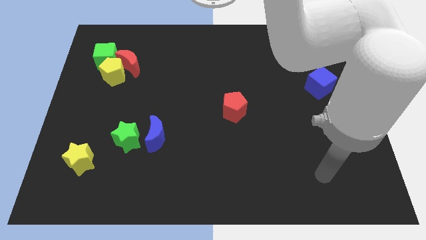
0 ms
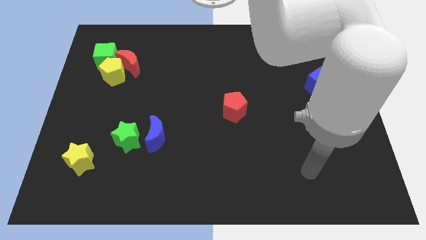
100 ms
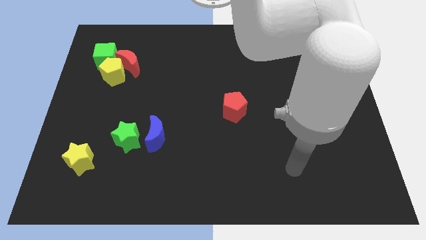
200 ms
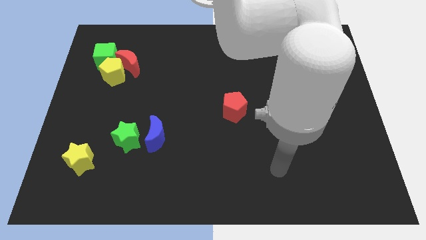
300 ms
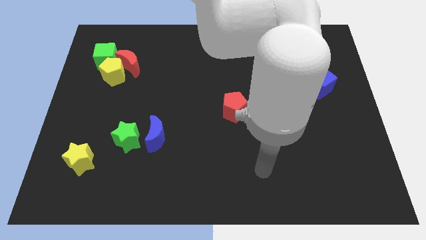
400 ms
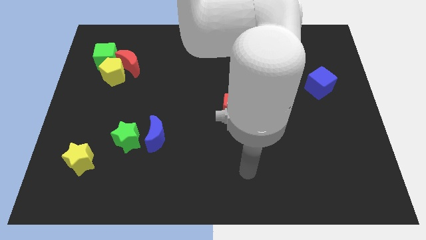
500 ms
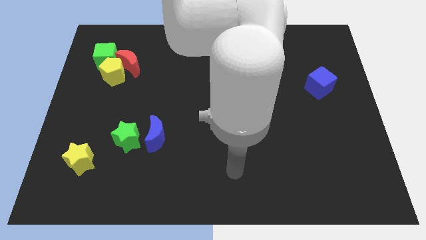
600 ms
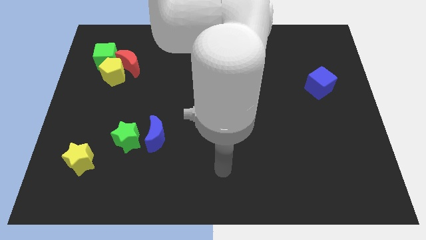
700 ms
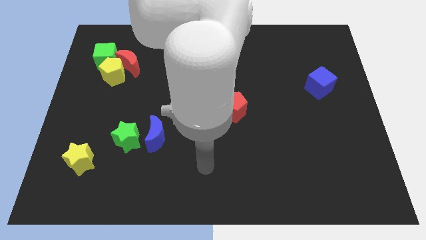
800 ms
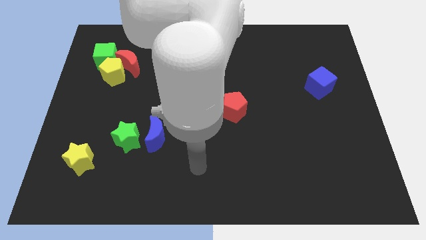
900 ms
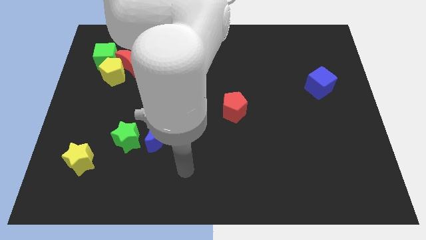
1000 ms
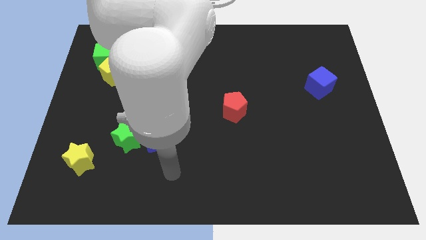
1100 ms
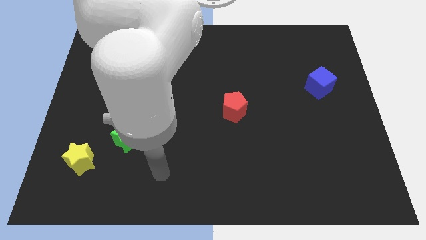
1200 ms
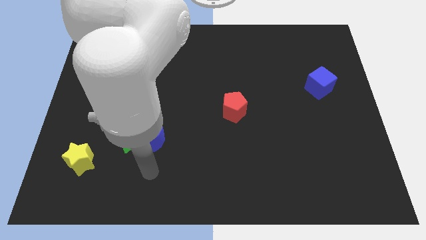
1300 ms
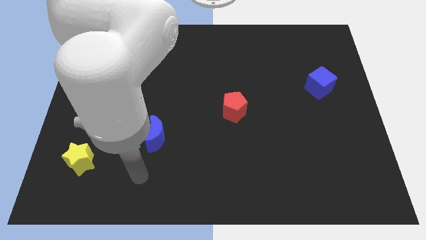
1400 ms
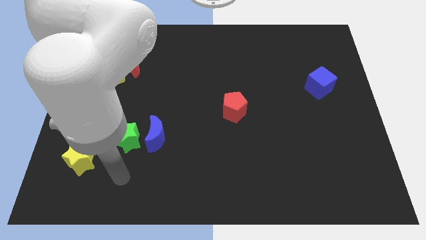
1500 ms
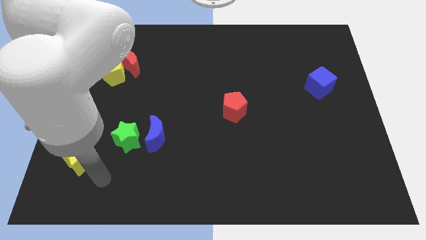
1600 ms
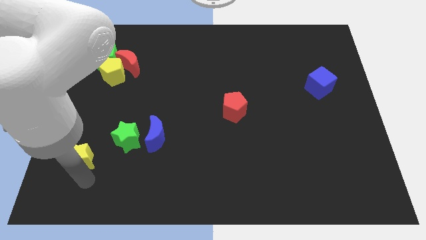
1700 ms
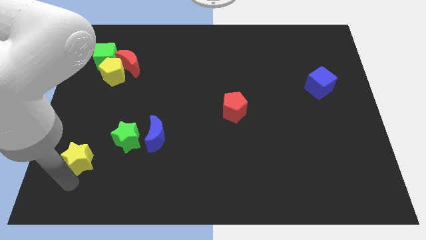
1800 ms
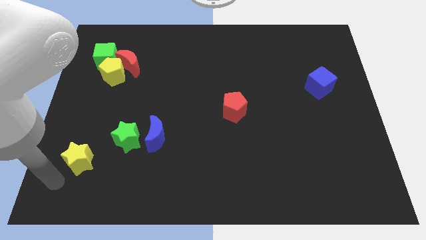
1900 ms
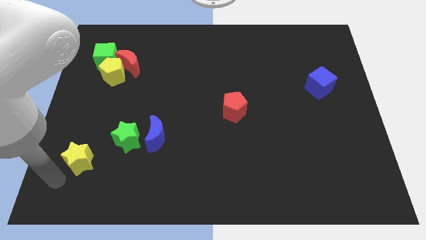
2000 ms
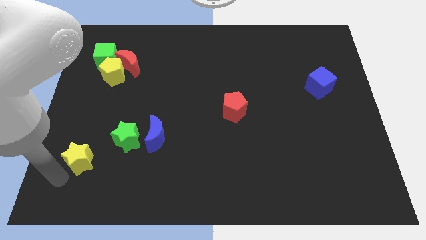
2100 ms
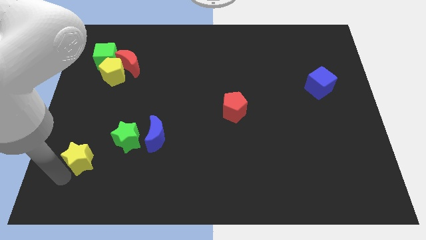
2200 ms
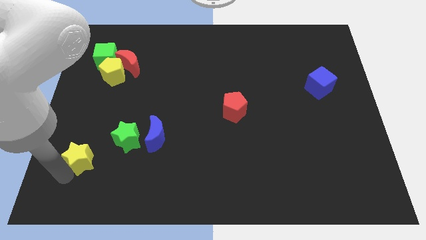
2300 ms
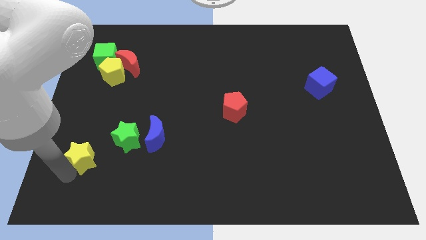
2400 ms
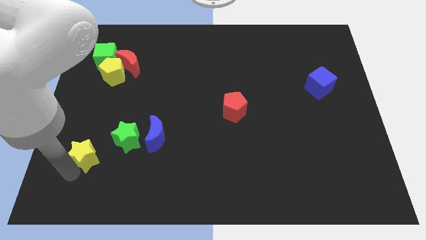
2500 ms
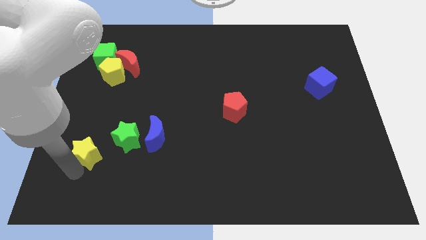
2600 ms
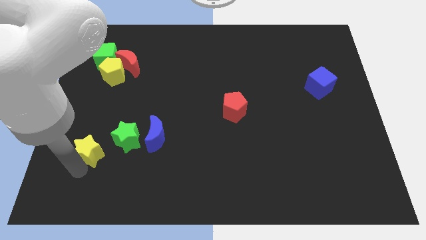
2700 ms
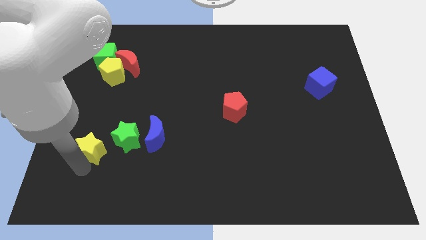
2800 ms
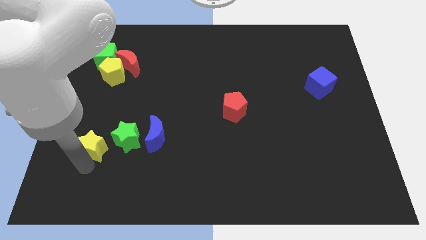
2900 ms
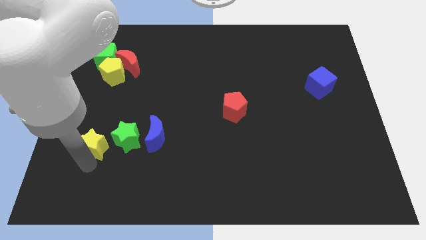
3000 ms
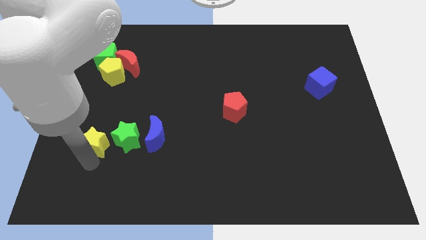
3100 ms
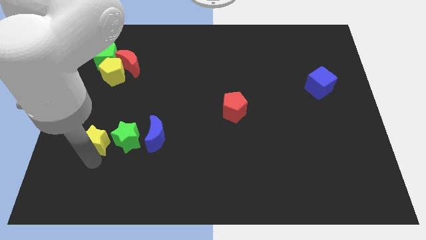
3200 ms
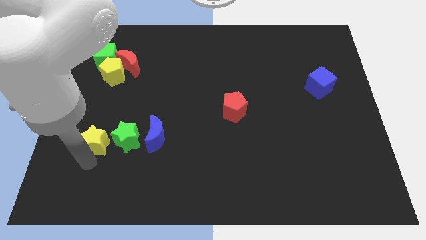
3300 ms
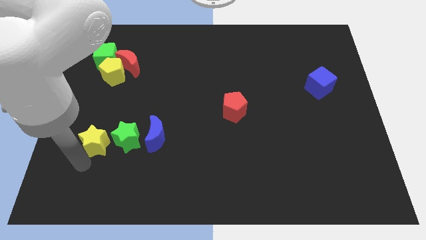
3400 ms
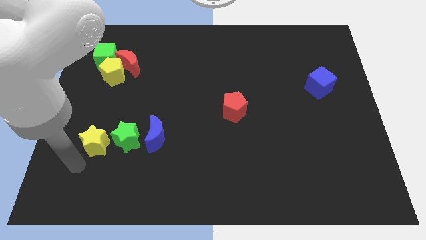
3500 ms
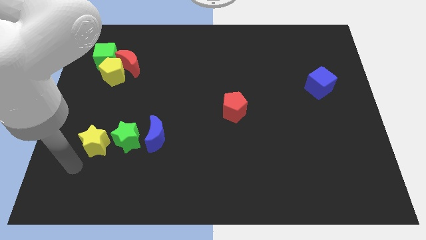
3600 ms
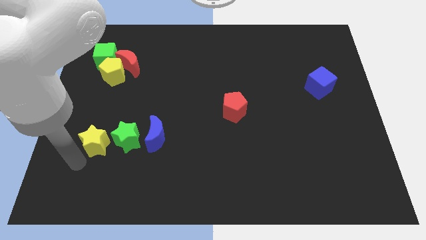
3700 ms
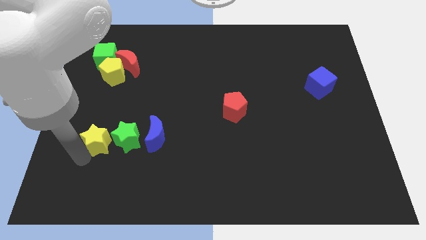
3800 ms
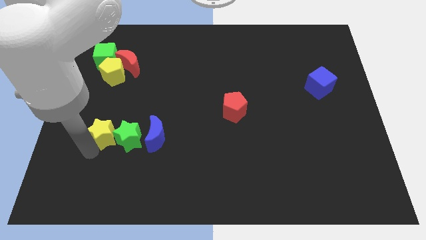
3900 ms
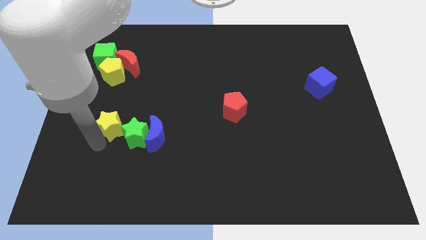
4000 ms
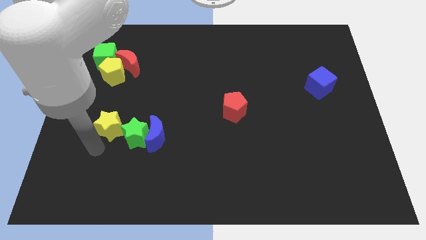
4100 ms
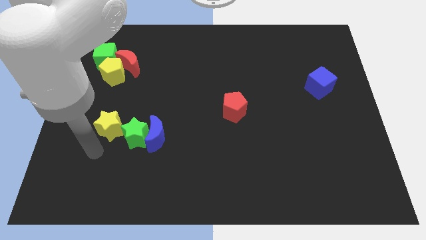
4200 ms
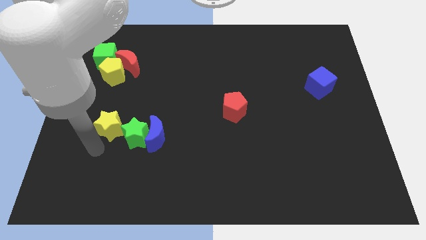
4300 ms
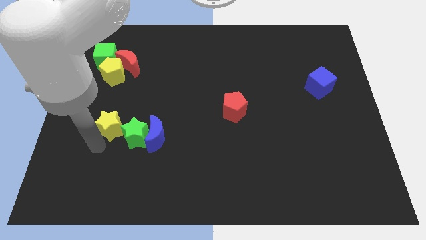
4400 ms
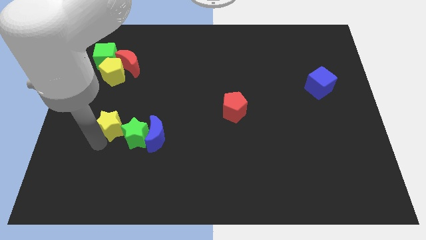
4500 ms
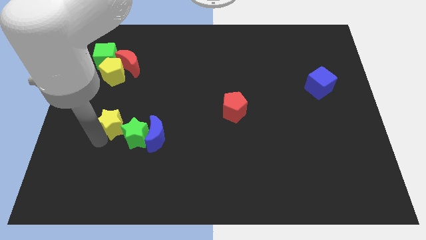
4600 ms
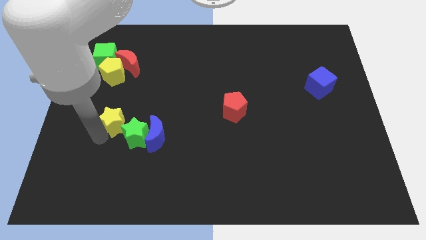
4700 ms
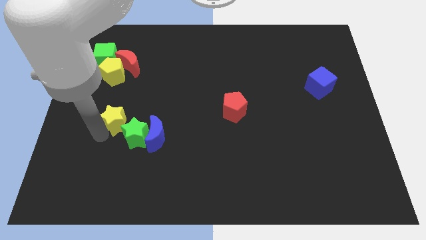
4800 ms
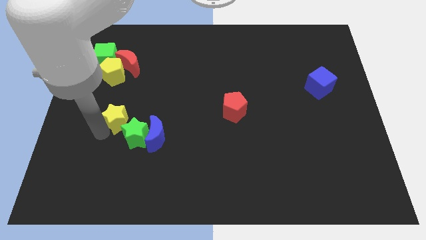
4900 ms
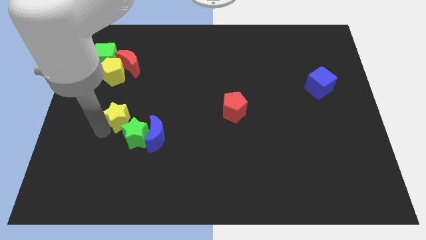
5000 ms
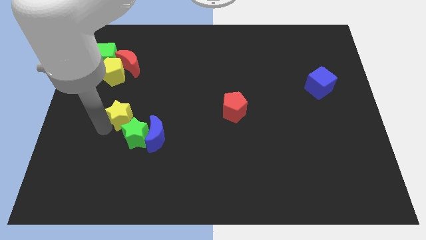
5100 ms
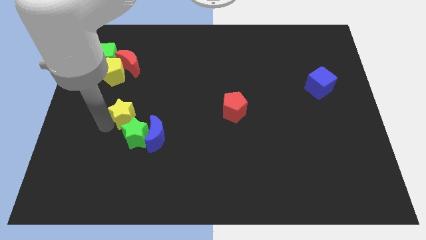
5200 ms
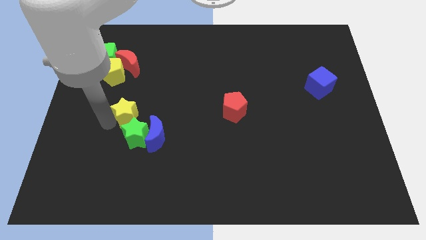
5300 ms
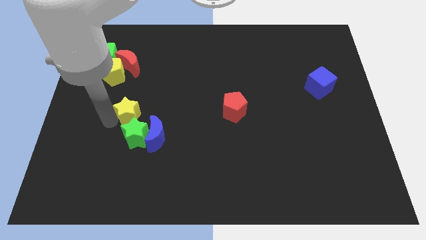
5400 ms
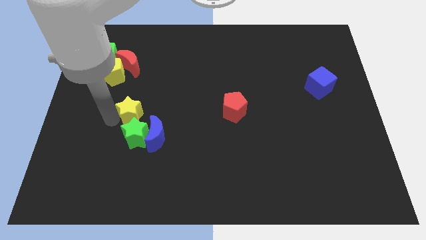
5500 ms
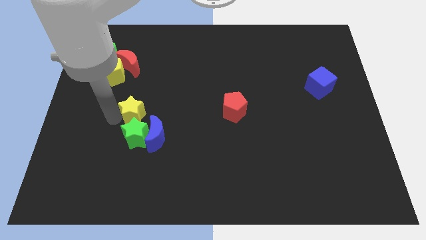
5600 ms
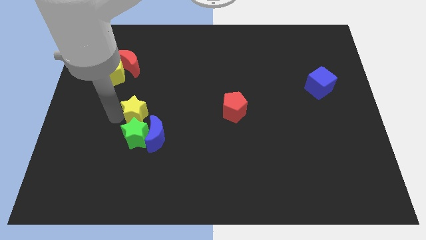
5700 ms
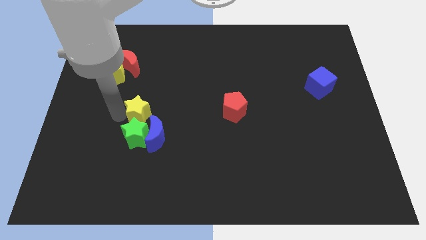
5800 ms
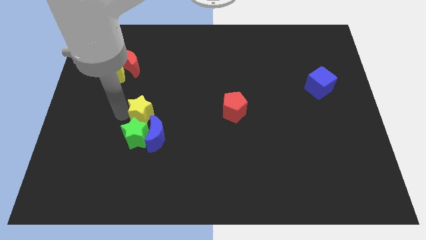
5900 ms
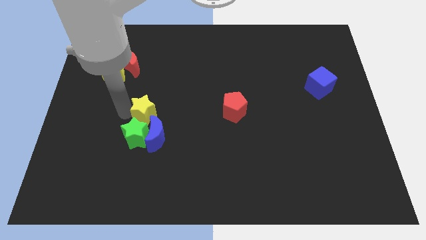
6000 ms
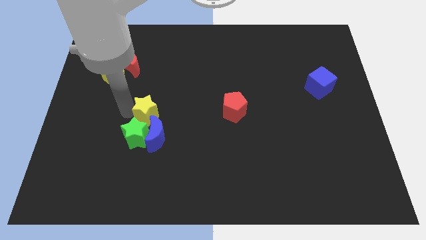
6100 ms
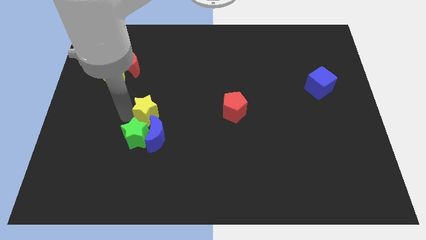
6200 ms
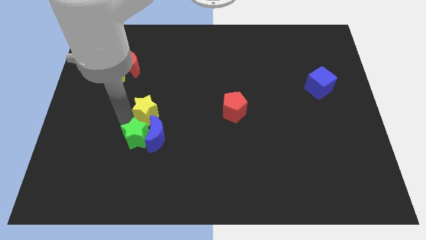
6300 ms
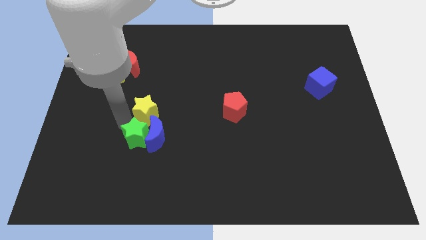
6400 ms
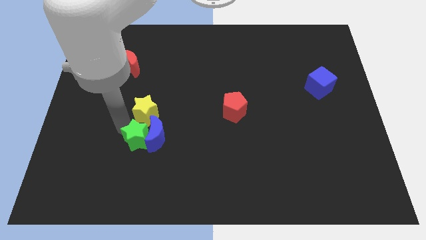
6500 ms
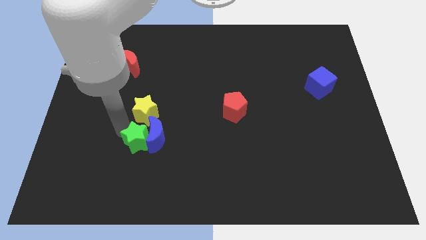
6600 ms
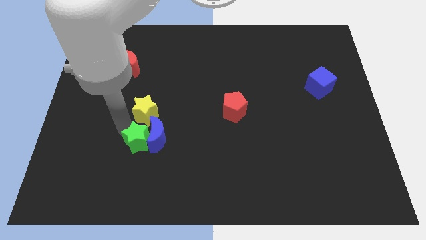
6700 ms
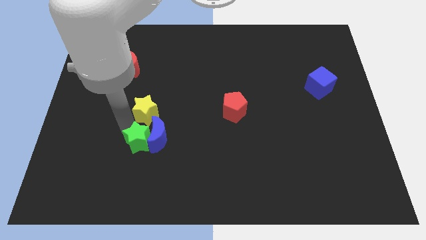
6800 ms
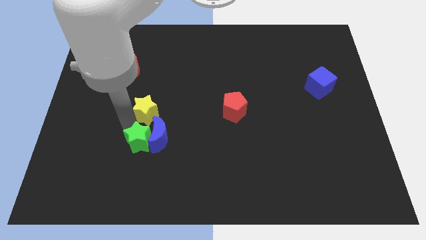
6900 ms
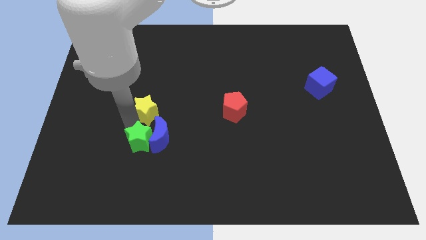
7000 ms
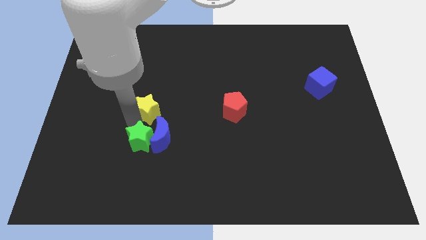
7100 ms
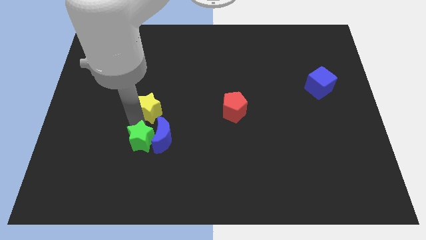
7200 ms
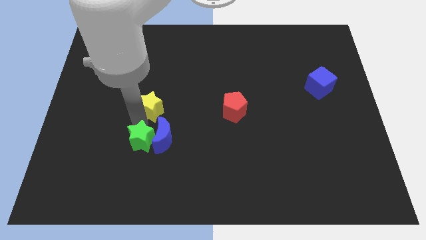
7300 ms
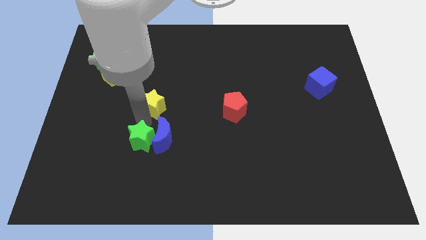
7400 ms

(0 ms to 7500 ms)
move the yellow star upwards and then to the right

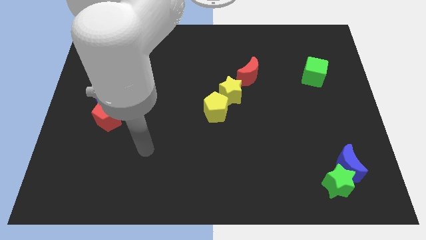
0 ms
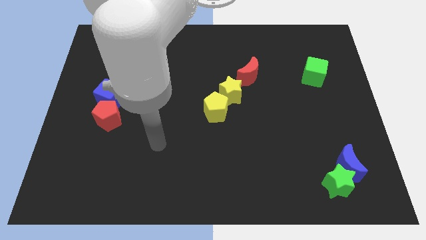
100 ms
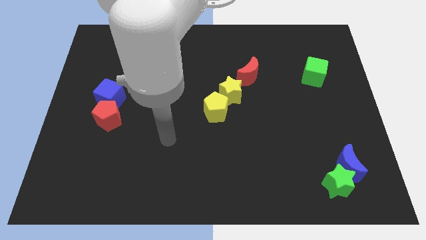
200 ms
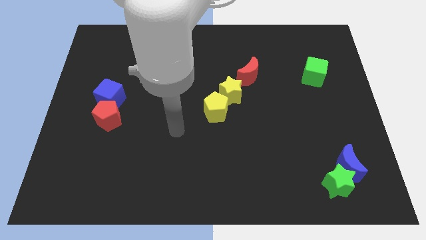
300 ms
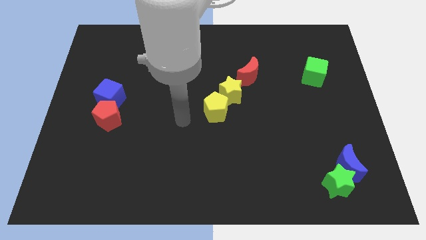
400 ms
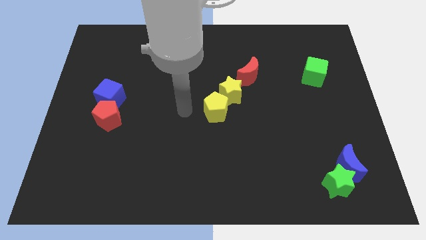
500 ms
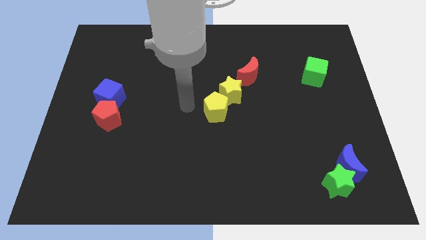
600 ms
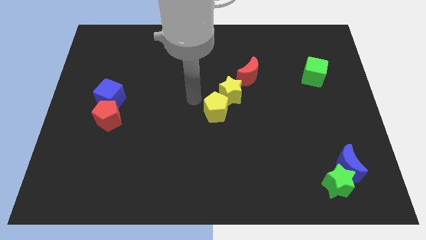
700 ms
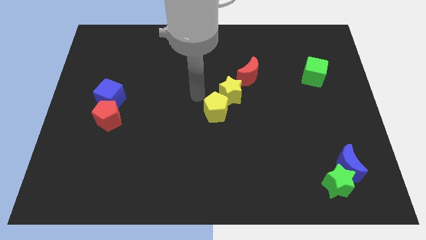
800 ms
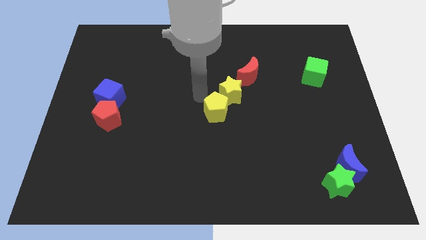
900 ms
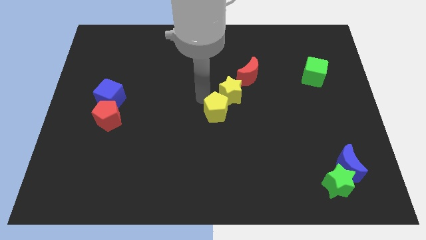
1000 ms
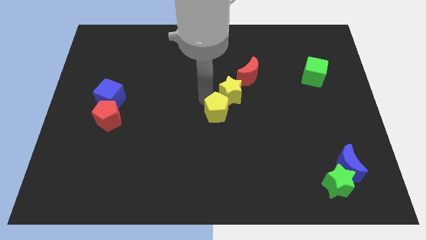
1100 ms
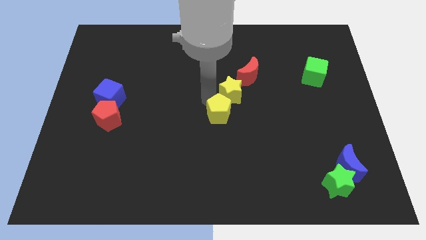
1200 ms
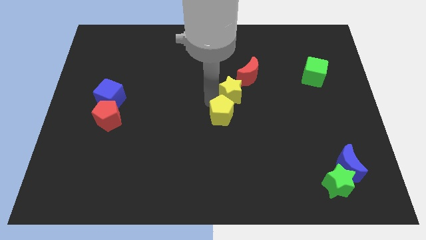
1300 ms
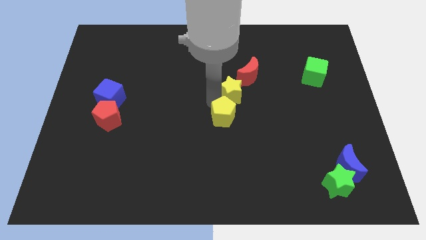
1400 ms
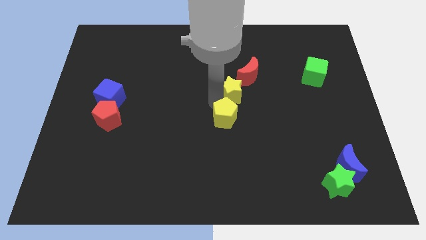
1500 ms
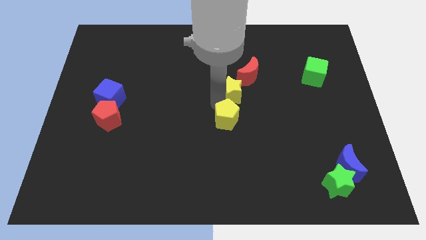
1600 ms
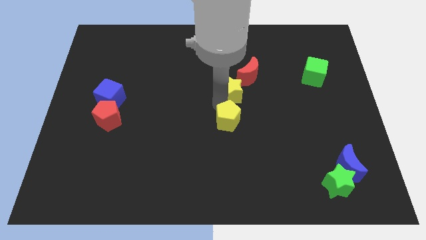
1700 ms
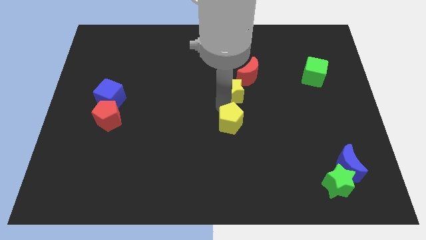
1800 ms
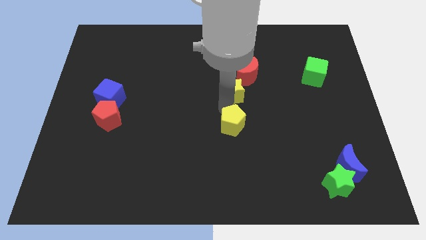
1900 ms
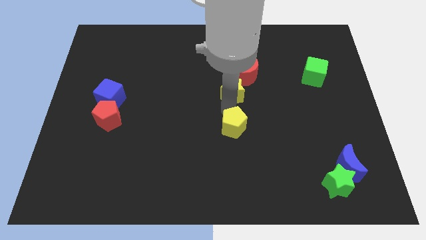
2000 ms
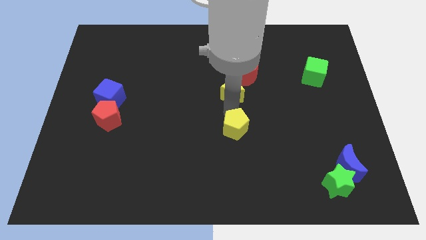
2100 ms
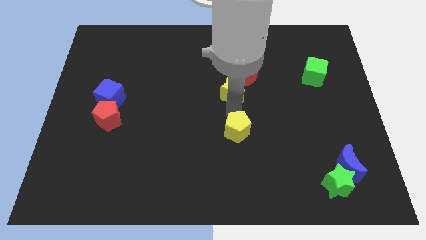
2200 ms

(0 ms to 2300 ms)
slide the yellow pentagon slightly down and to the right diagonally
